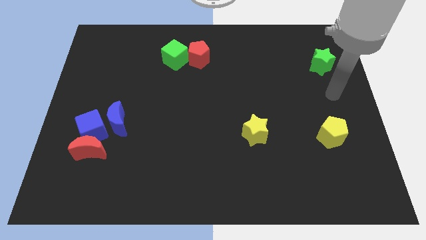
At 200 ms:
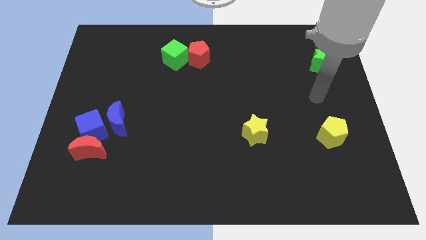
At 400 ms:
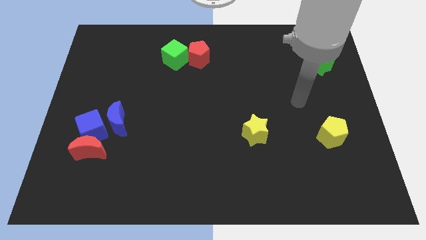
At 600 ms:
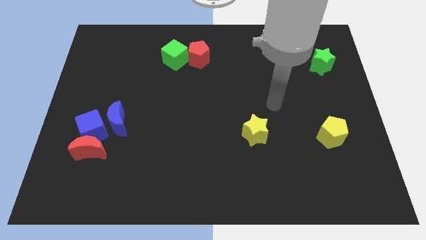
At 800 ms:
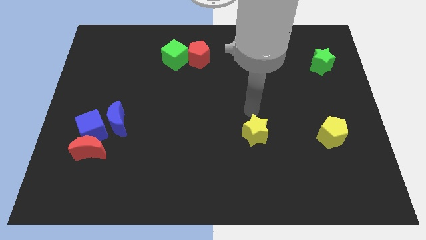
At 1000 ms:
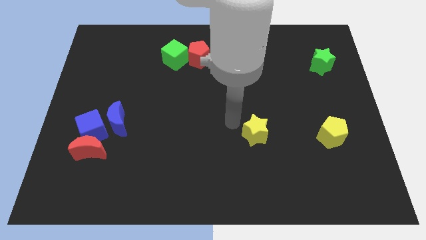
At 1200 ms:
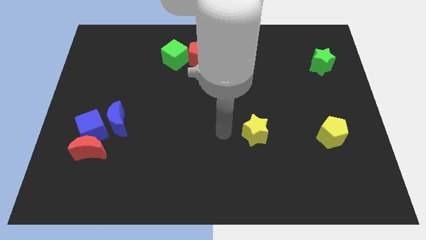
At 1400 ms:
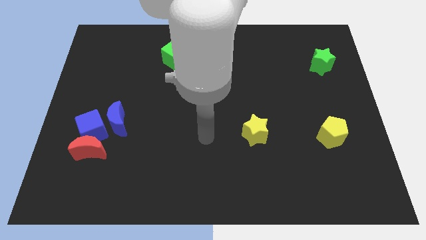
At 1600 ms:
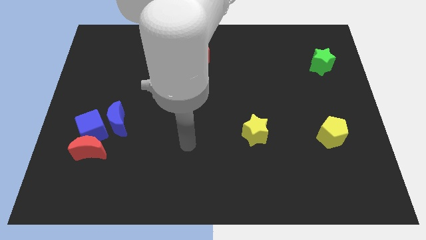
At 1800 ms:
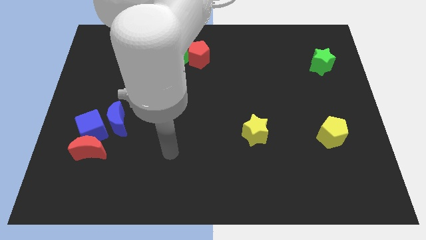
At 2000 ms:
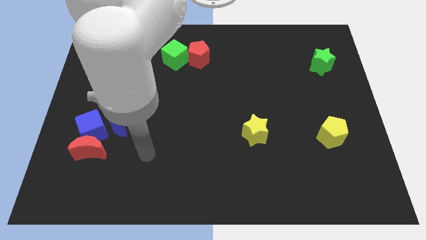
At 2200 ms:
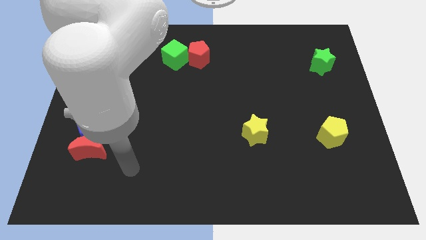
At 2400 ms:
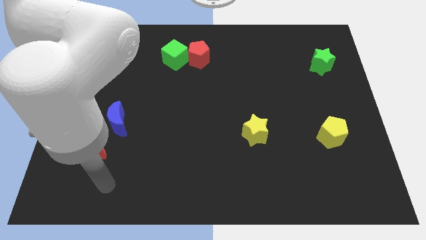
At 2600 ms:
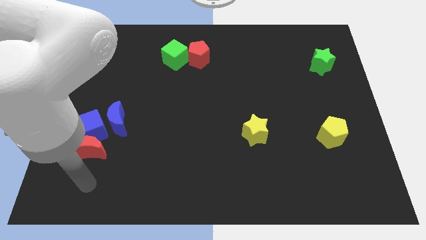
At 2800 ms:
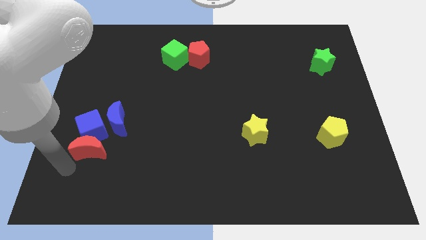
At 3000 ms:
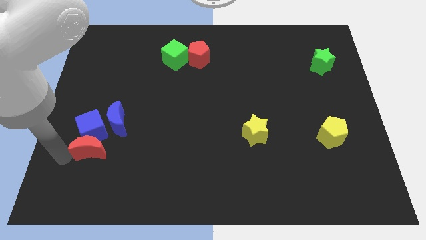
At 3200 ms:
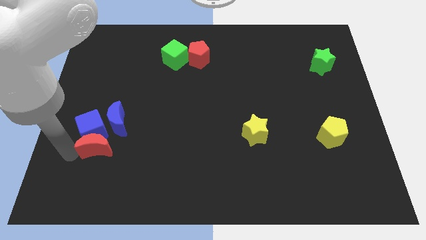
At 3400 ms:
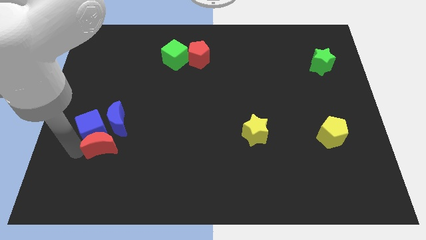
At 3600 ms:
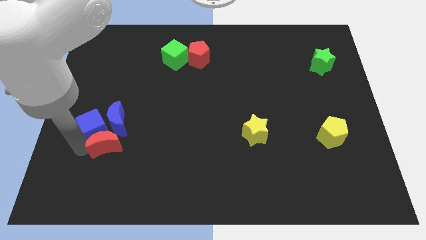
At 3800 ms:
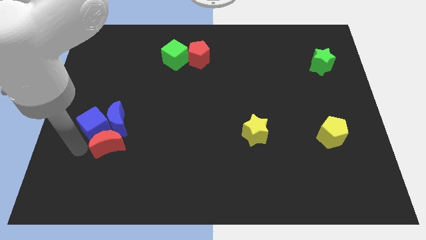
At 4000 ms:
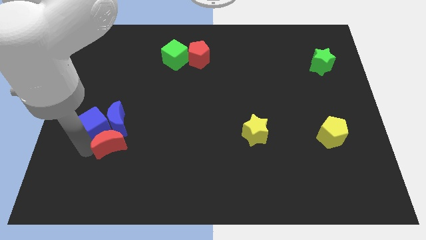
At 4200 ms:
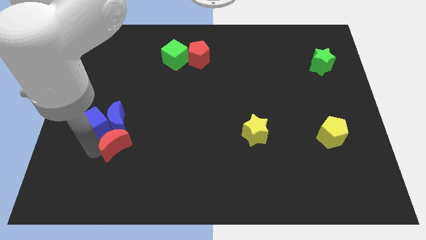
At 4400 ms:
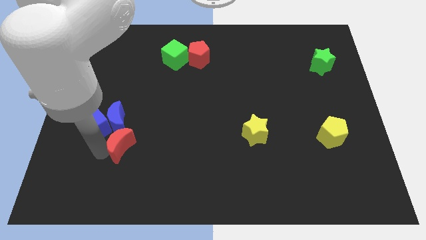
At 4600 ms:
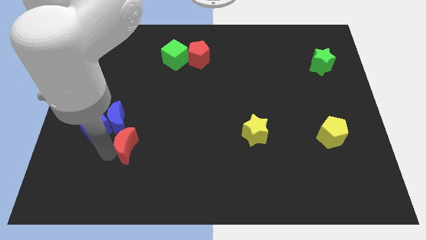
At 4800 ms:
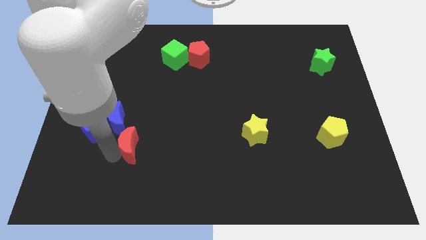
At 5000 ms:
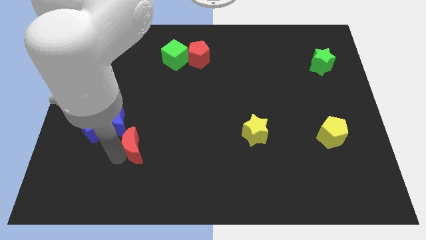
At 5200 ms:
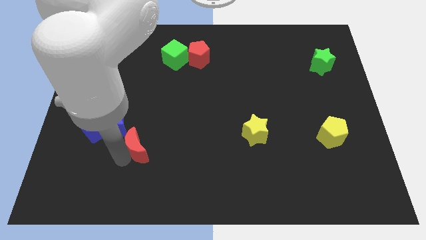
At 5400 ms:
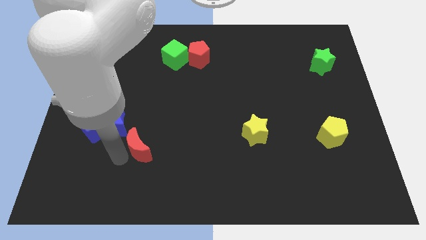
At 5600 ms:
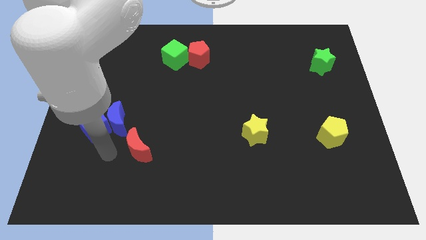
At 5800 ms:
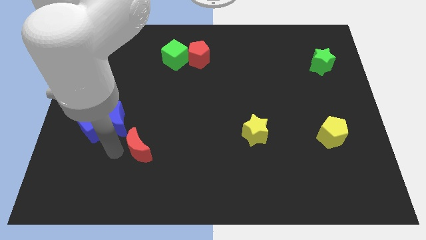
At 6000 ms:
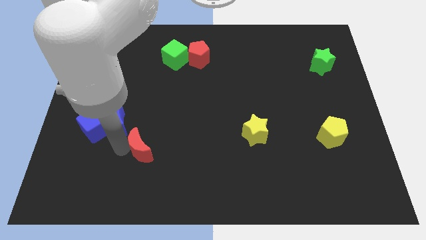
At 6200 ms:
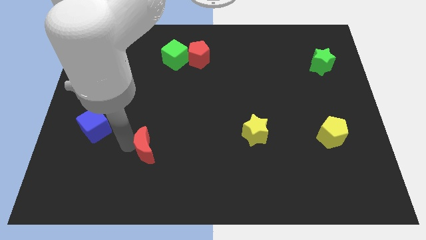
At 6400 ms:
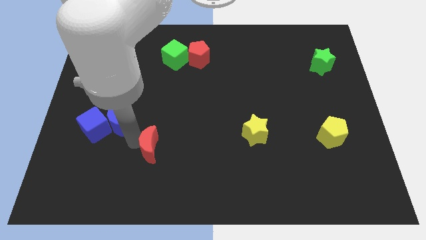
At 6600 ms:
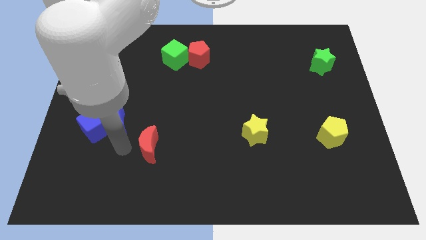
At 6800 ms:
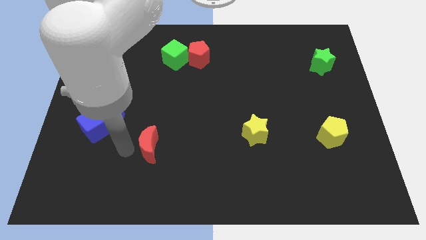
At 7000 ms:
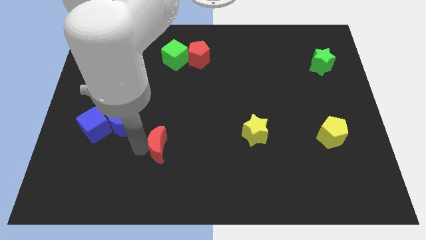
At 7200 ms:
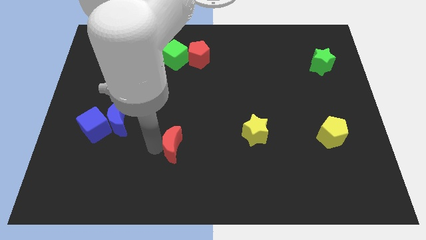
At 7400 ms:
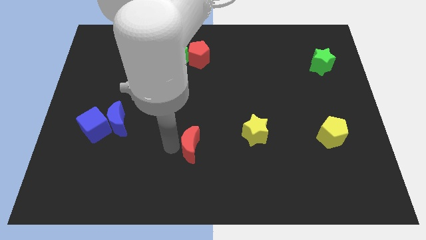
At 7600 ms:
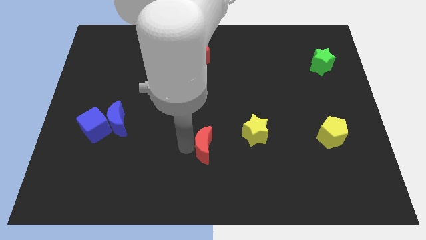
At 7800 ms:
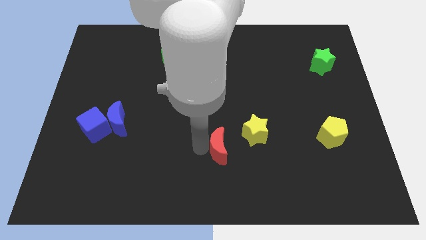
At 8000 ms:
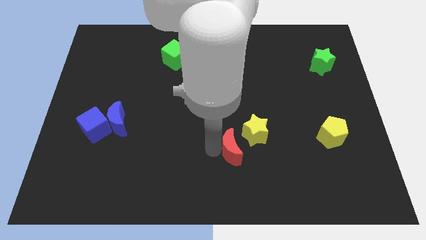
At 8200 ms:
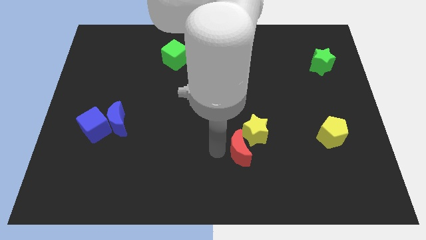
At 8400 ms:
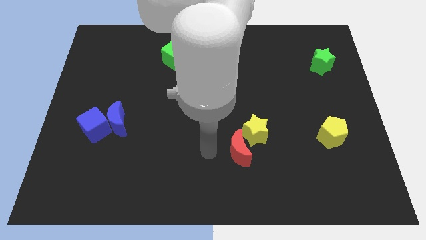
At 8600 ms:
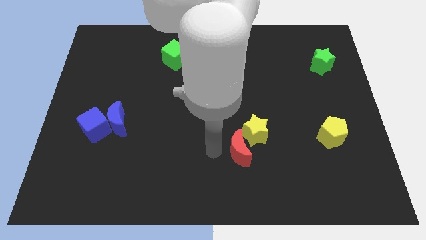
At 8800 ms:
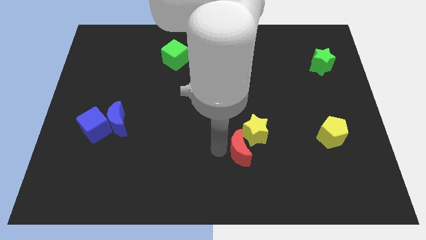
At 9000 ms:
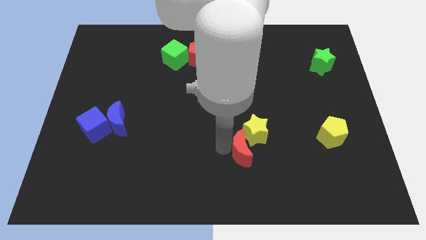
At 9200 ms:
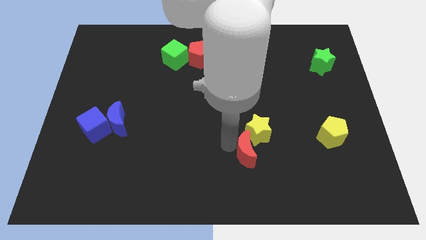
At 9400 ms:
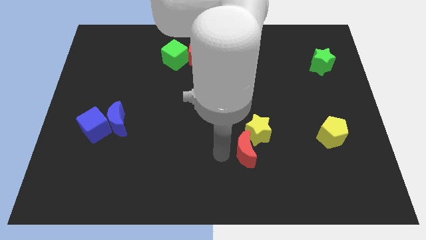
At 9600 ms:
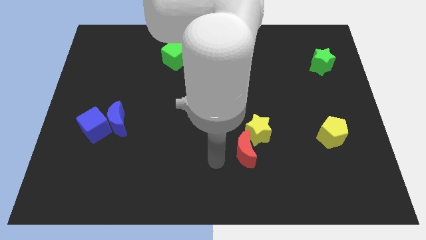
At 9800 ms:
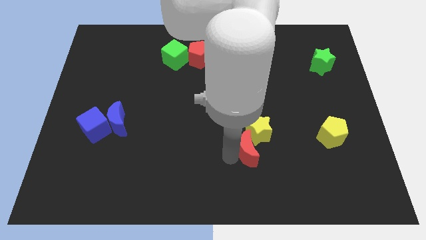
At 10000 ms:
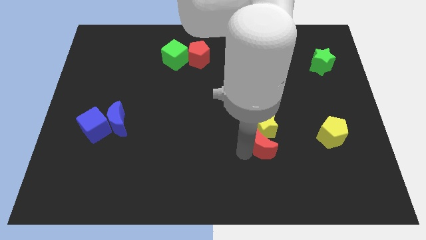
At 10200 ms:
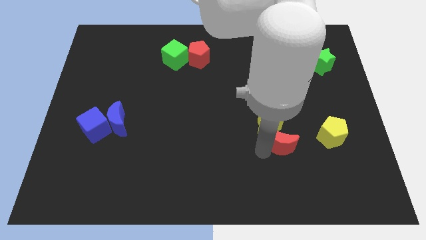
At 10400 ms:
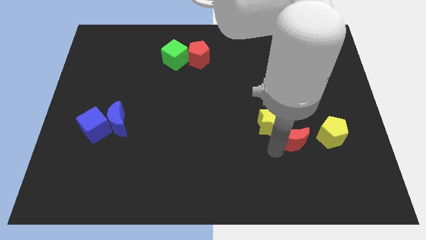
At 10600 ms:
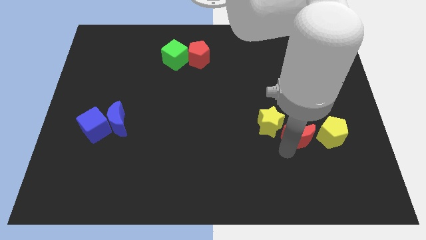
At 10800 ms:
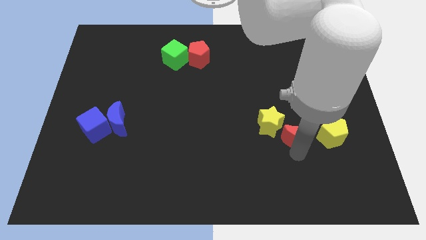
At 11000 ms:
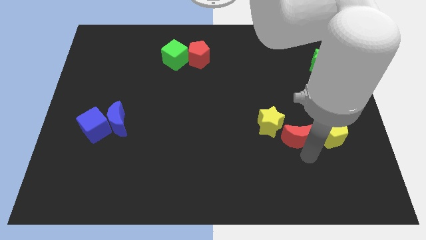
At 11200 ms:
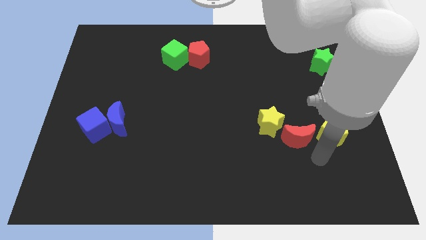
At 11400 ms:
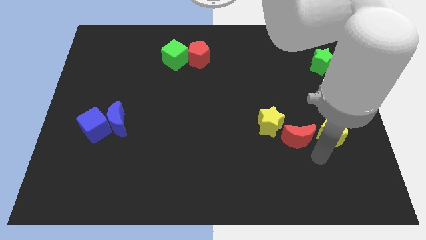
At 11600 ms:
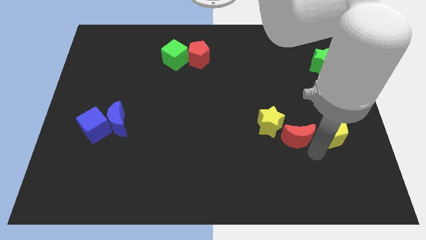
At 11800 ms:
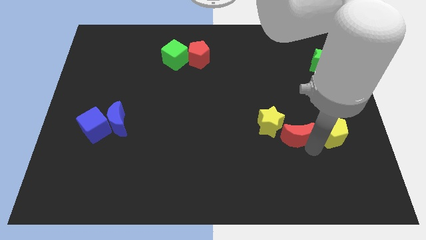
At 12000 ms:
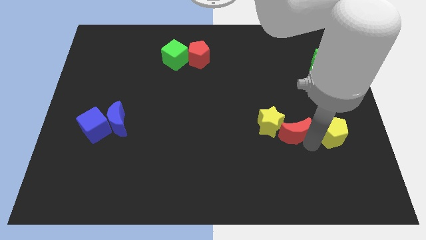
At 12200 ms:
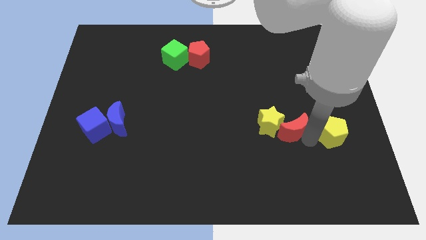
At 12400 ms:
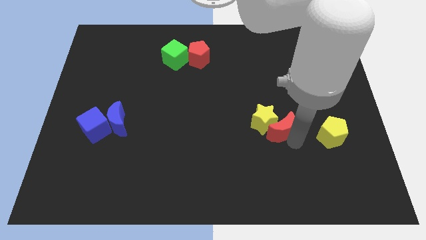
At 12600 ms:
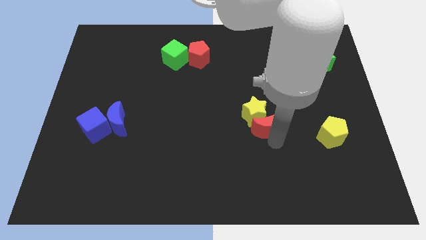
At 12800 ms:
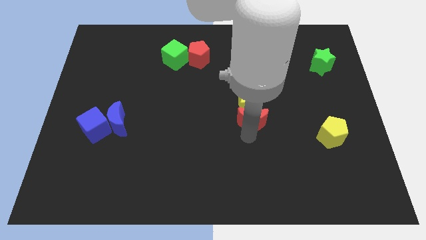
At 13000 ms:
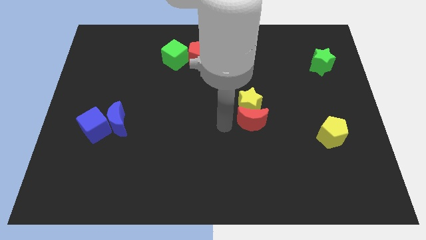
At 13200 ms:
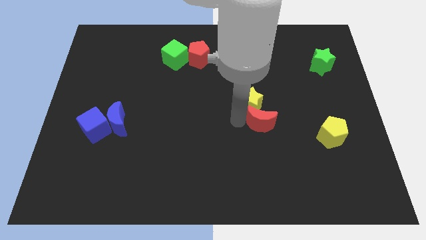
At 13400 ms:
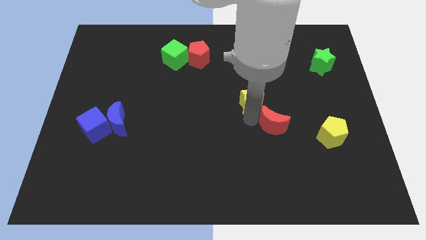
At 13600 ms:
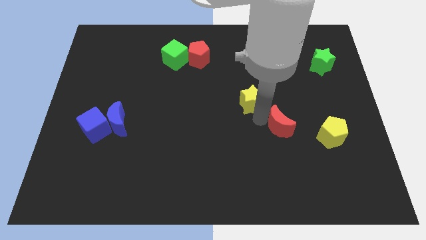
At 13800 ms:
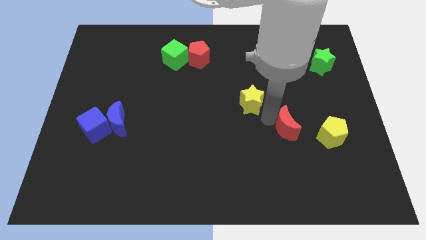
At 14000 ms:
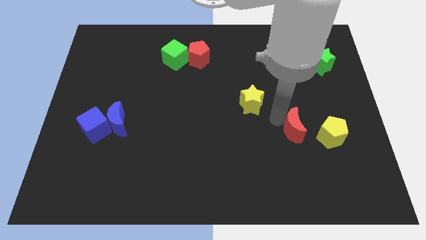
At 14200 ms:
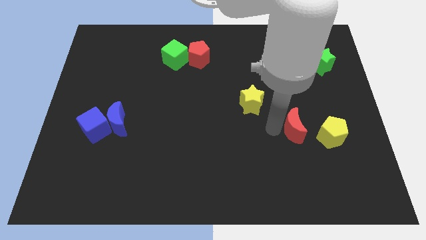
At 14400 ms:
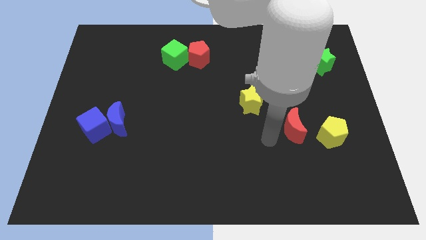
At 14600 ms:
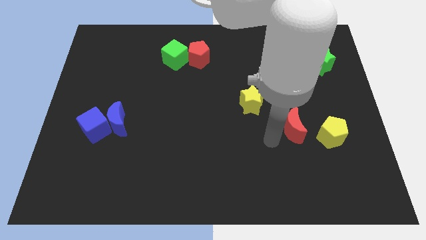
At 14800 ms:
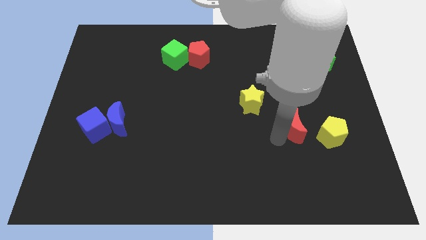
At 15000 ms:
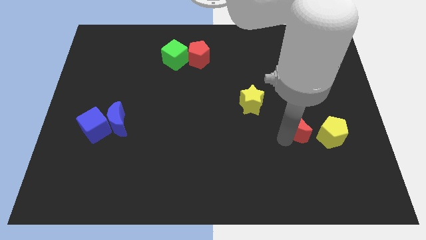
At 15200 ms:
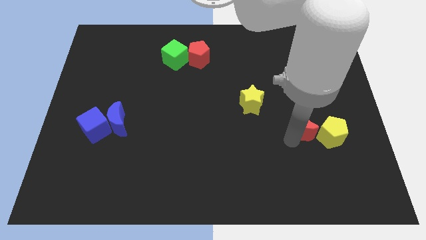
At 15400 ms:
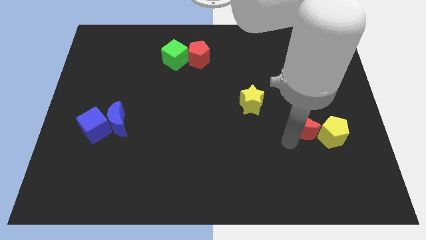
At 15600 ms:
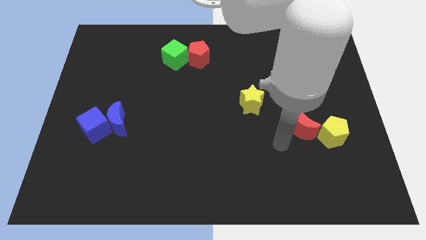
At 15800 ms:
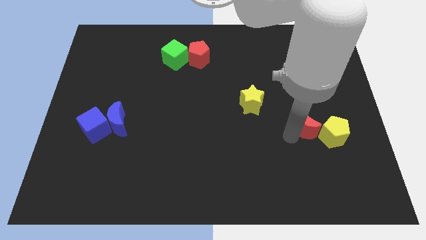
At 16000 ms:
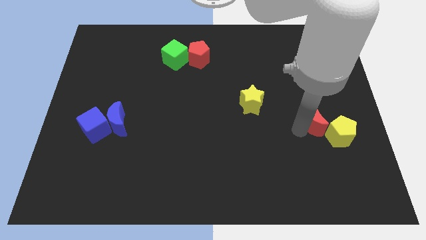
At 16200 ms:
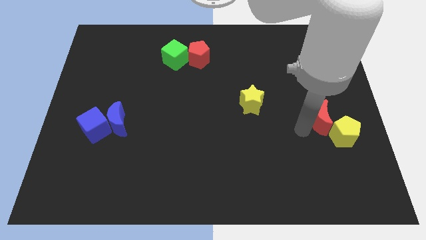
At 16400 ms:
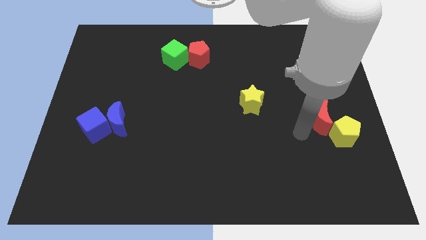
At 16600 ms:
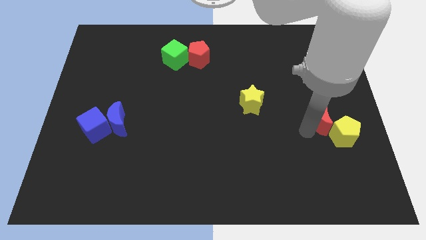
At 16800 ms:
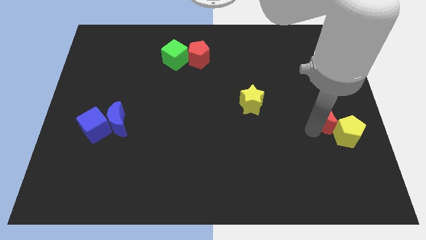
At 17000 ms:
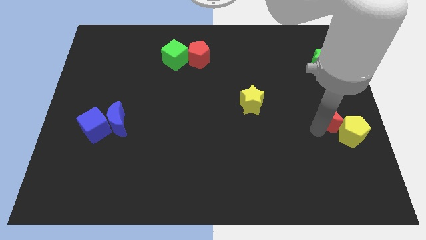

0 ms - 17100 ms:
put the red moon to the center right
